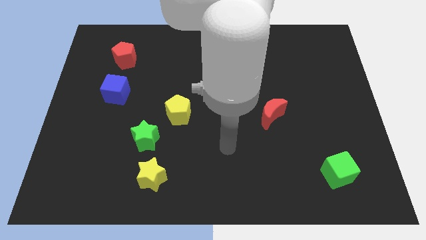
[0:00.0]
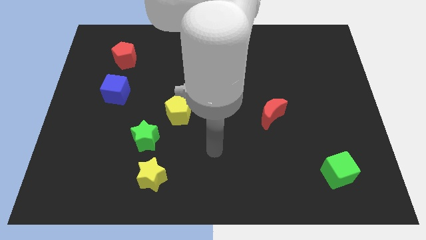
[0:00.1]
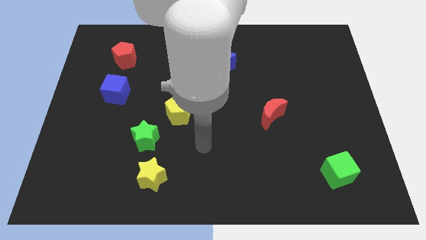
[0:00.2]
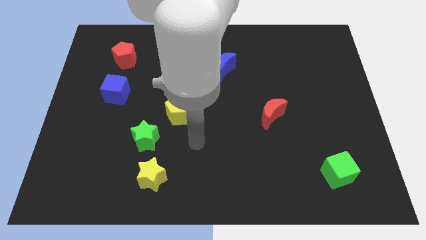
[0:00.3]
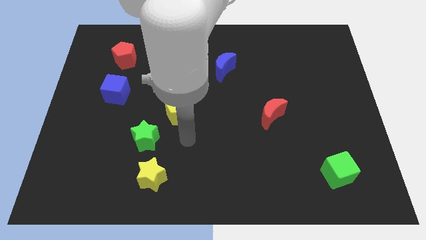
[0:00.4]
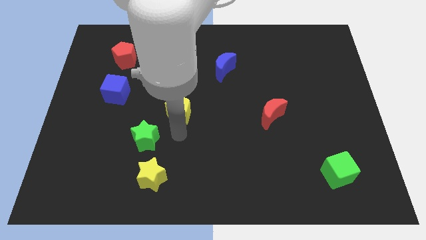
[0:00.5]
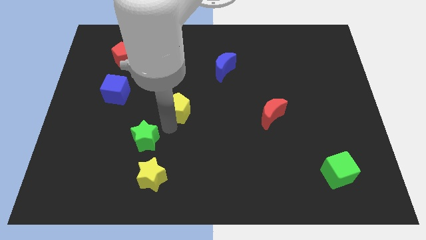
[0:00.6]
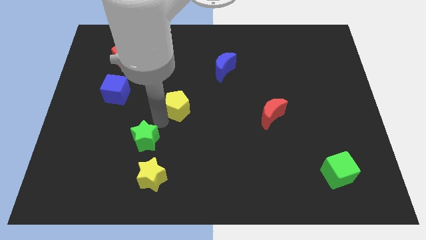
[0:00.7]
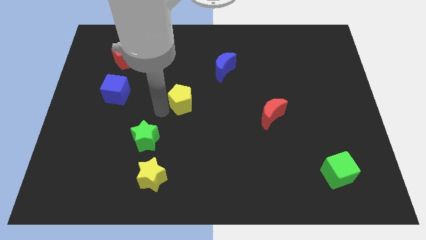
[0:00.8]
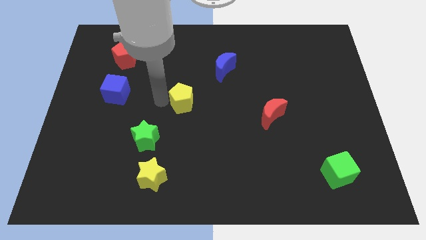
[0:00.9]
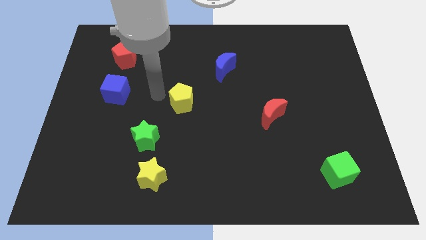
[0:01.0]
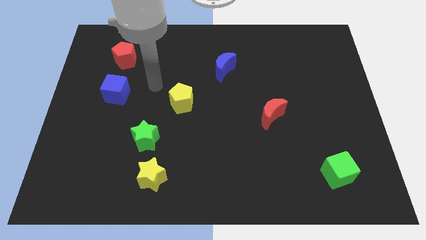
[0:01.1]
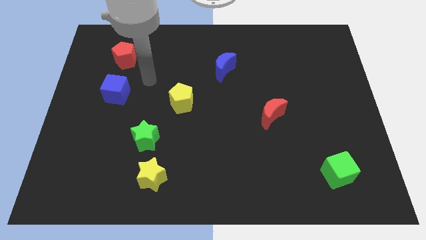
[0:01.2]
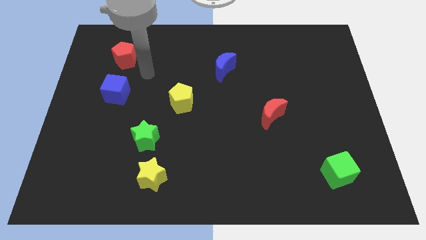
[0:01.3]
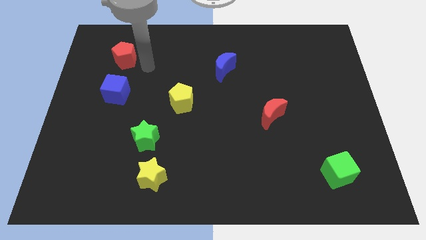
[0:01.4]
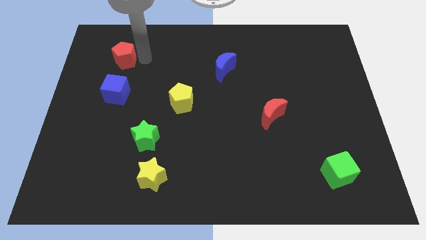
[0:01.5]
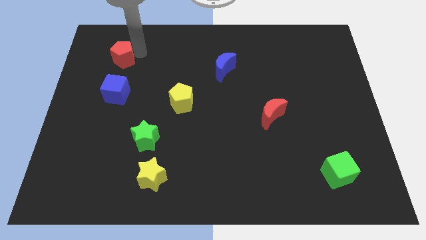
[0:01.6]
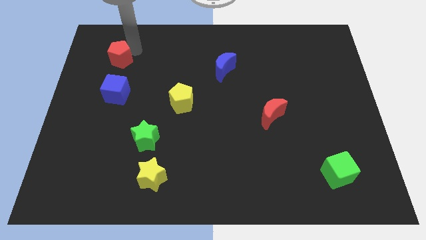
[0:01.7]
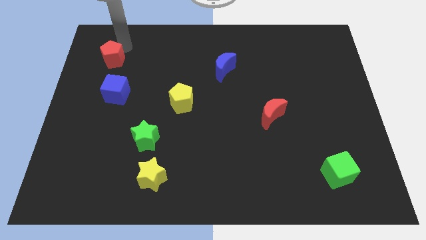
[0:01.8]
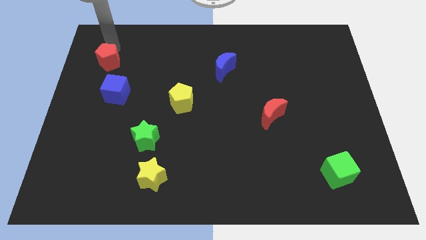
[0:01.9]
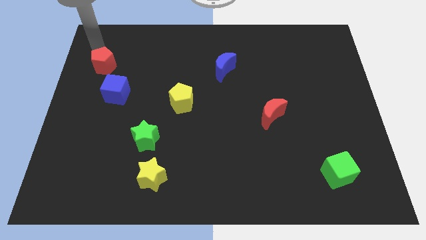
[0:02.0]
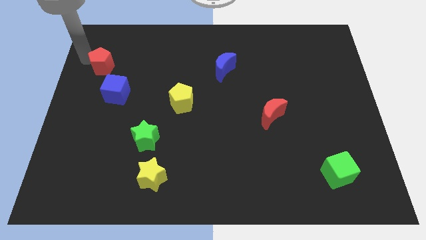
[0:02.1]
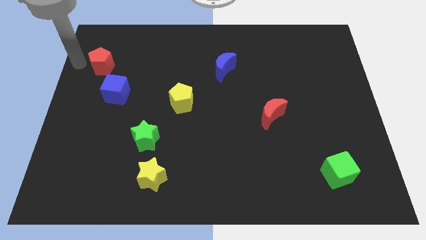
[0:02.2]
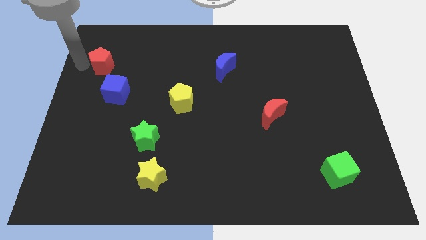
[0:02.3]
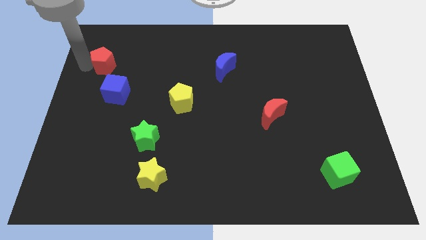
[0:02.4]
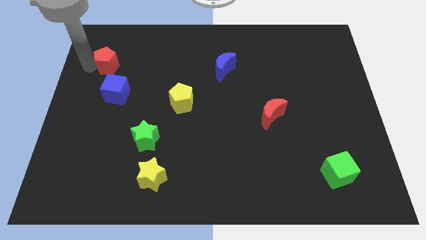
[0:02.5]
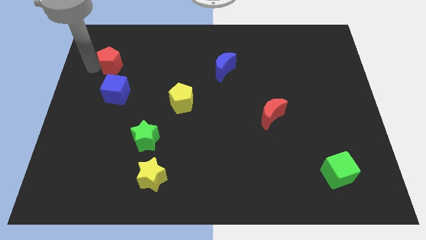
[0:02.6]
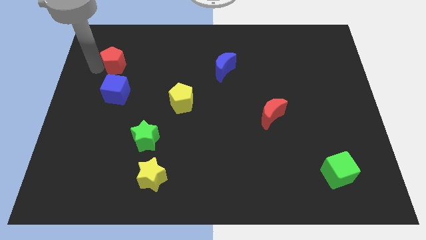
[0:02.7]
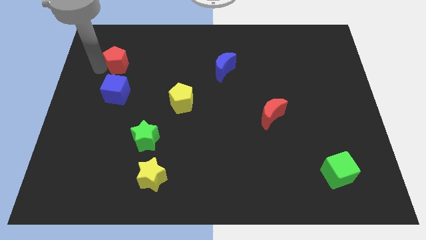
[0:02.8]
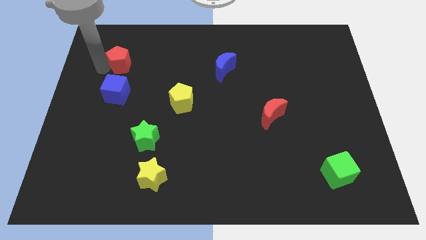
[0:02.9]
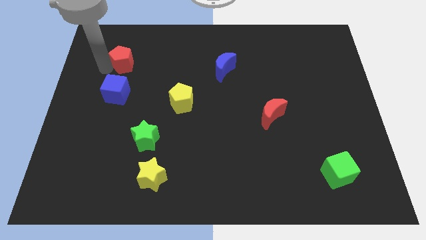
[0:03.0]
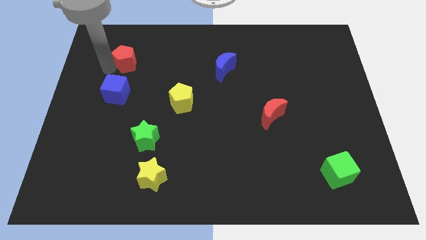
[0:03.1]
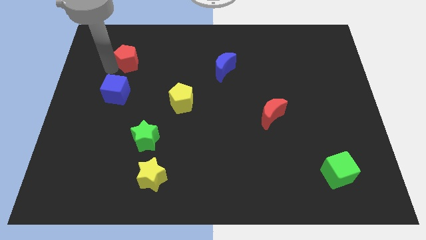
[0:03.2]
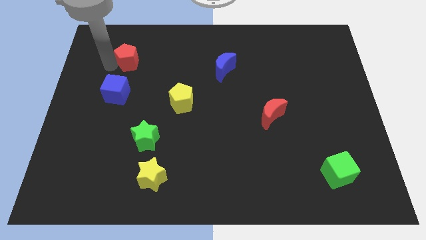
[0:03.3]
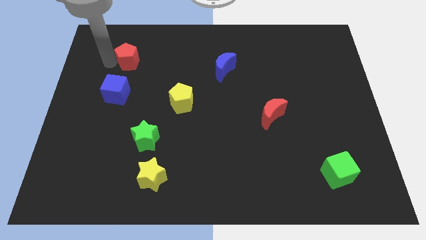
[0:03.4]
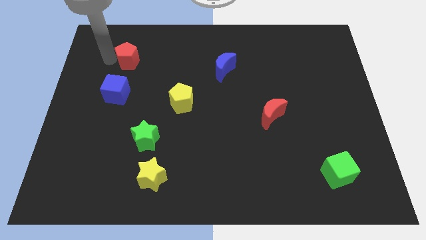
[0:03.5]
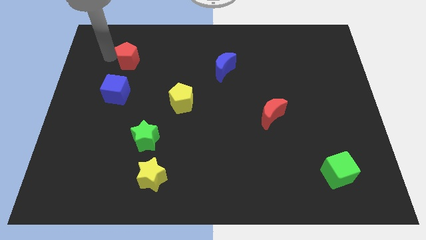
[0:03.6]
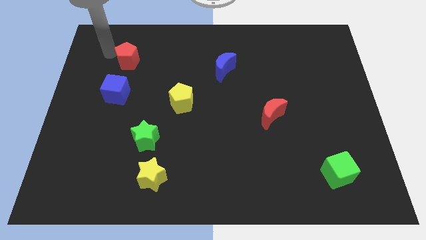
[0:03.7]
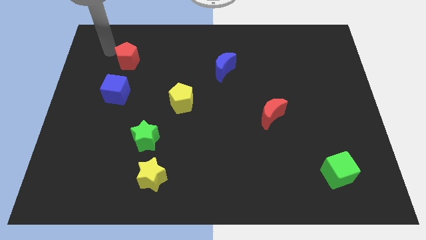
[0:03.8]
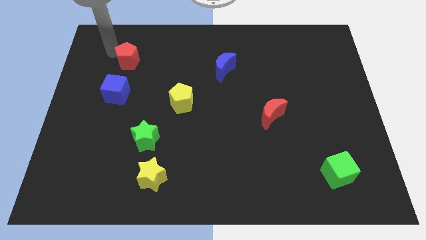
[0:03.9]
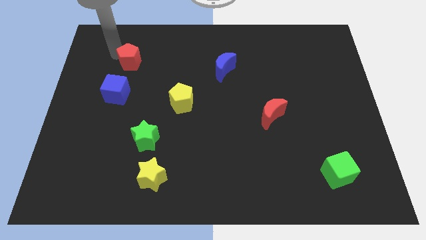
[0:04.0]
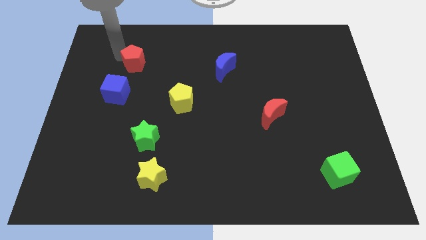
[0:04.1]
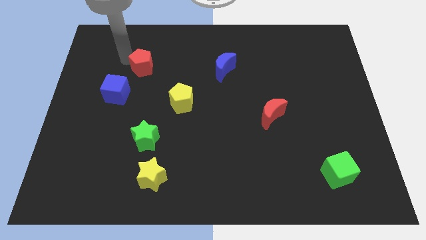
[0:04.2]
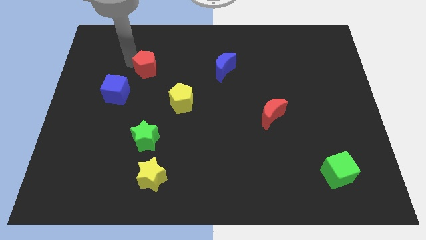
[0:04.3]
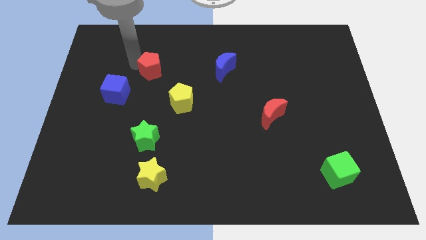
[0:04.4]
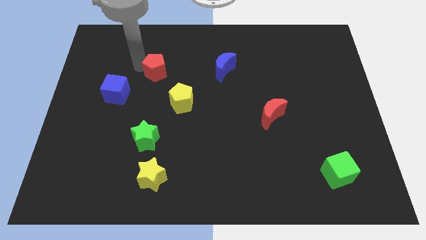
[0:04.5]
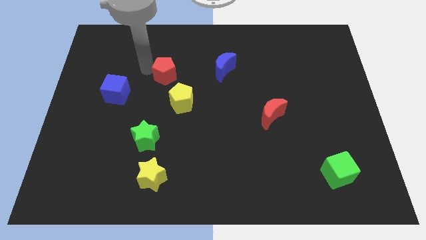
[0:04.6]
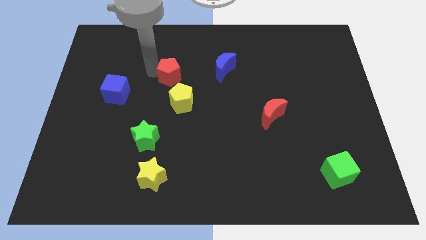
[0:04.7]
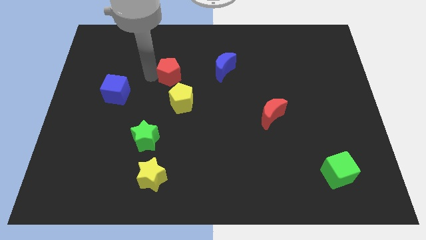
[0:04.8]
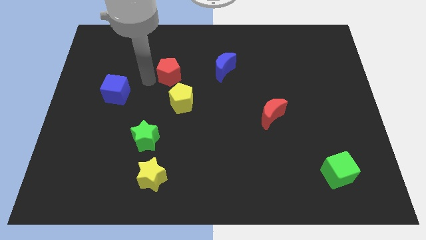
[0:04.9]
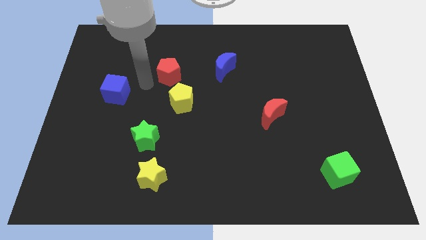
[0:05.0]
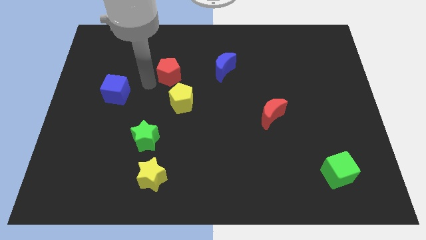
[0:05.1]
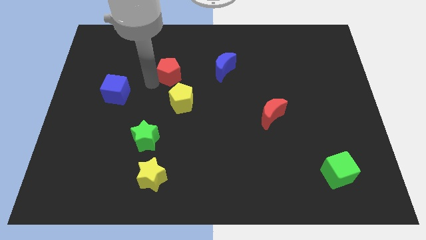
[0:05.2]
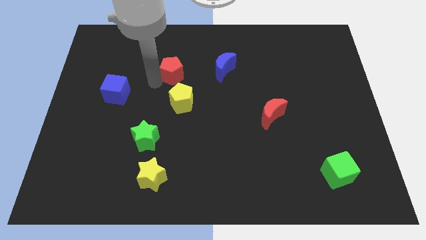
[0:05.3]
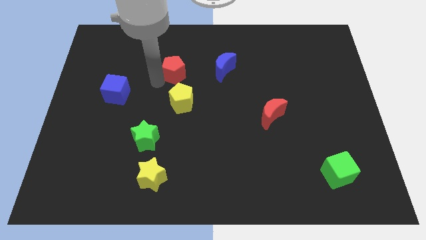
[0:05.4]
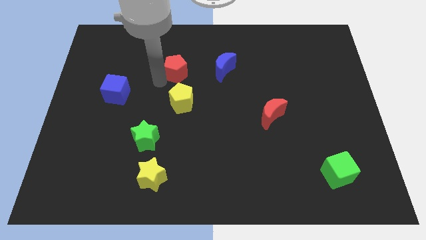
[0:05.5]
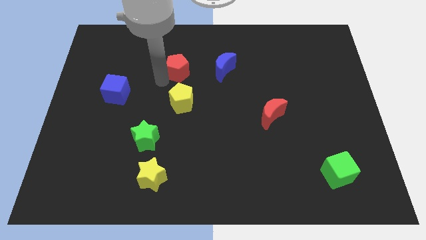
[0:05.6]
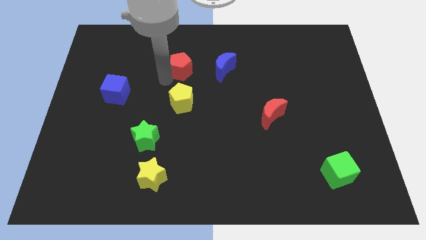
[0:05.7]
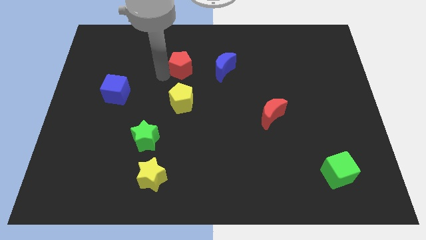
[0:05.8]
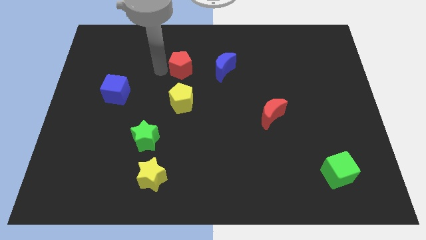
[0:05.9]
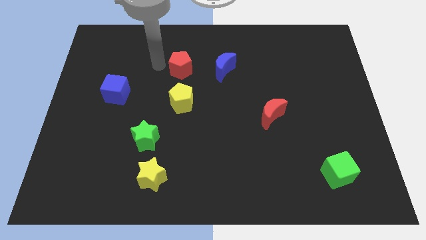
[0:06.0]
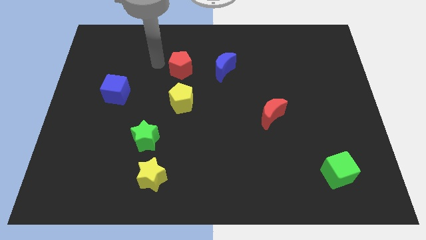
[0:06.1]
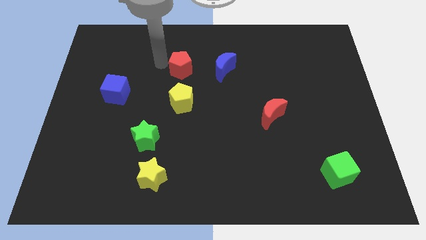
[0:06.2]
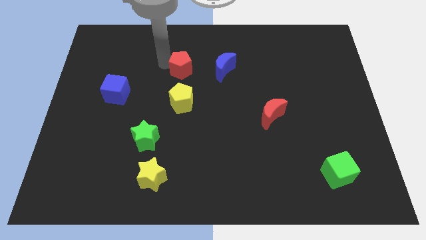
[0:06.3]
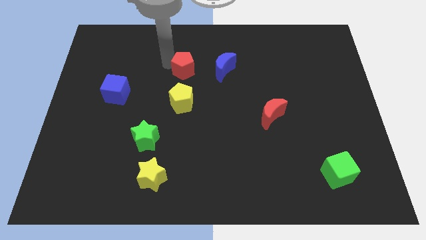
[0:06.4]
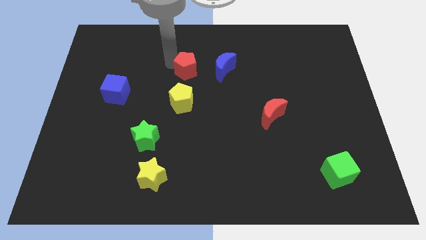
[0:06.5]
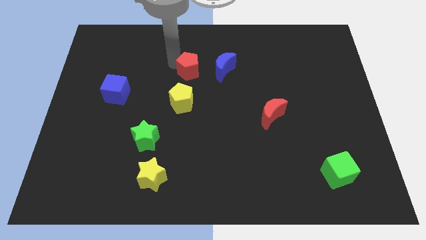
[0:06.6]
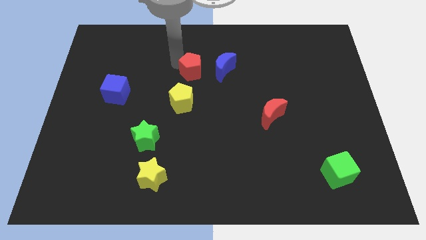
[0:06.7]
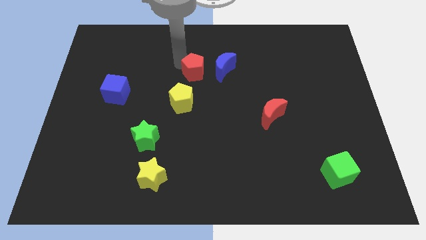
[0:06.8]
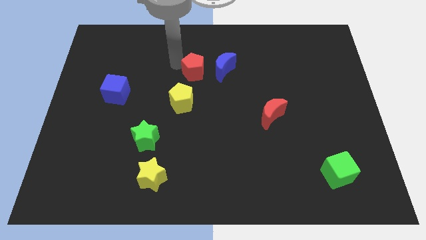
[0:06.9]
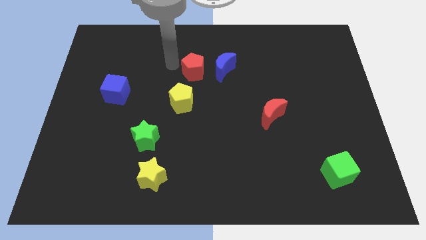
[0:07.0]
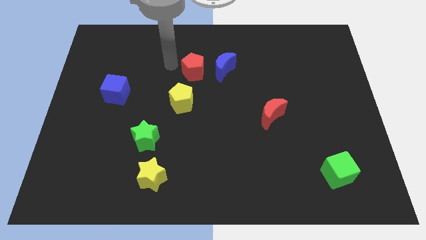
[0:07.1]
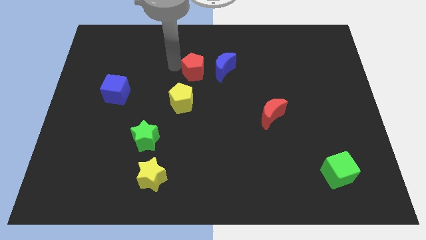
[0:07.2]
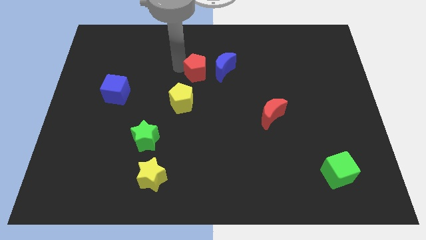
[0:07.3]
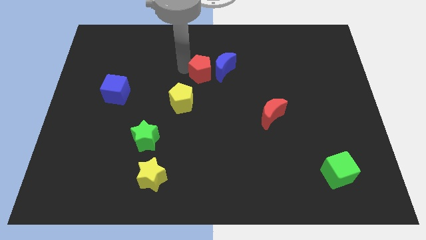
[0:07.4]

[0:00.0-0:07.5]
put the red pentagon to the blue moon
